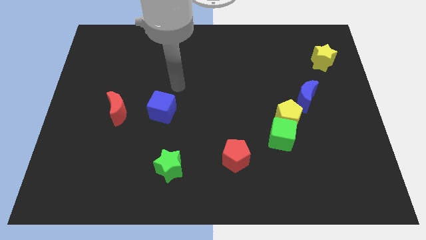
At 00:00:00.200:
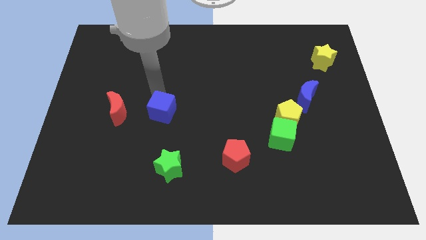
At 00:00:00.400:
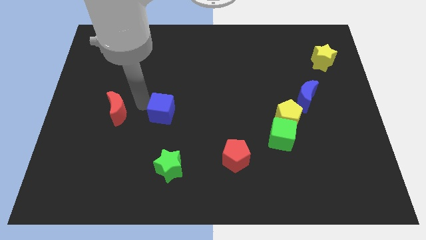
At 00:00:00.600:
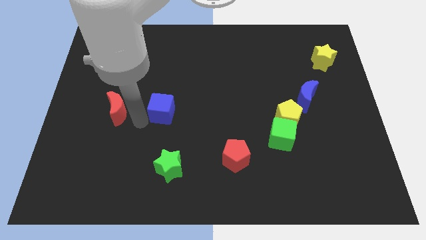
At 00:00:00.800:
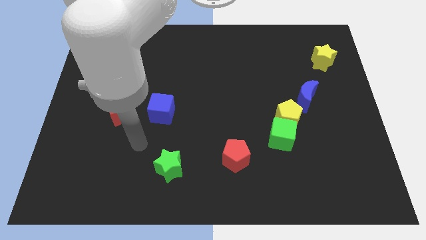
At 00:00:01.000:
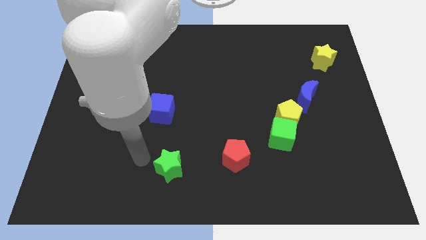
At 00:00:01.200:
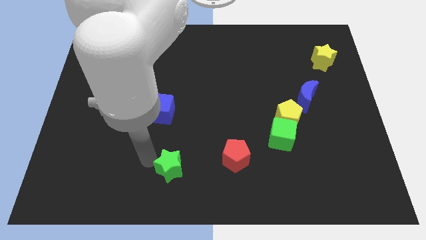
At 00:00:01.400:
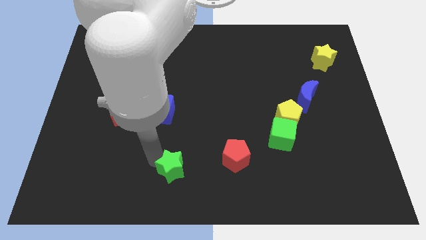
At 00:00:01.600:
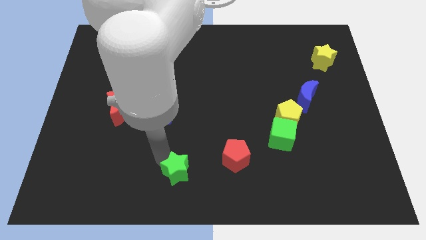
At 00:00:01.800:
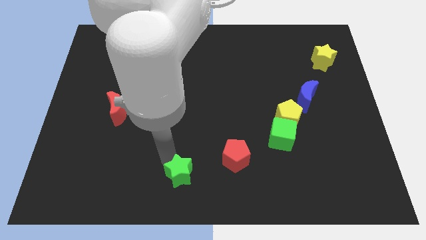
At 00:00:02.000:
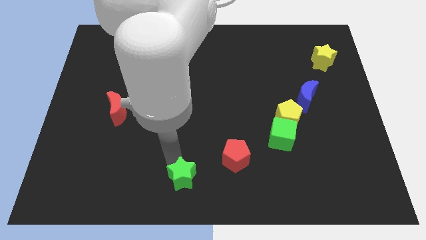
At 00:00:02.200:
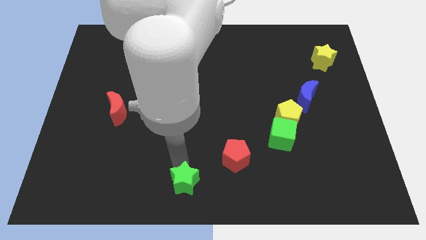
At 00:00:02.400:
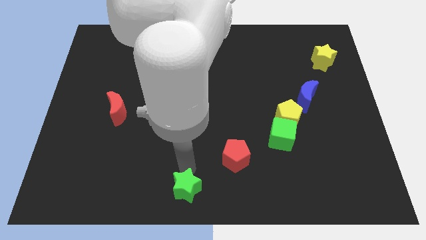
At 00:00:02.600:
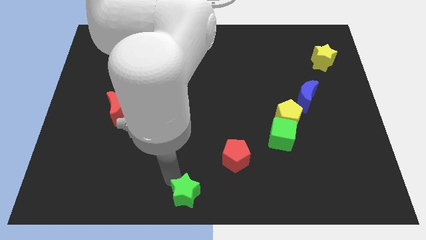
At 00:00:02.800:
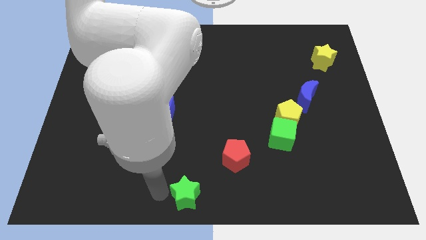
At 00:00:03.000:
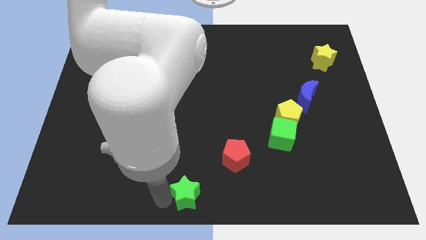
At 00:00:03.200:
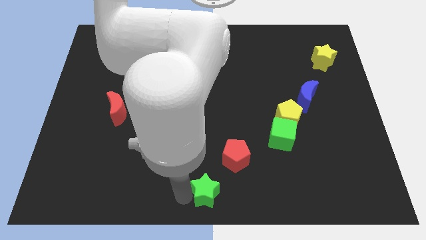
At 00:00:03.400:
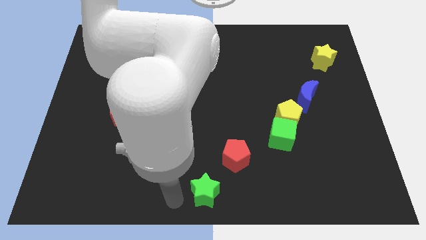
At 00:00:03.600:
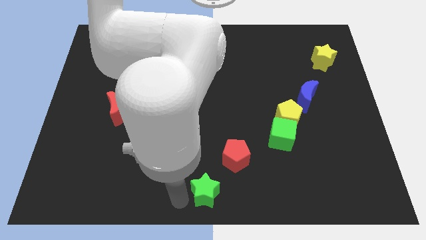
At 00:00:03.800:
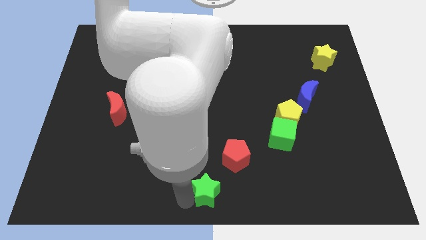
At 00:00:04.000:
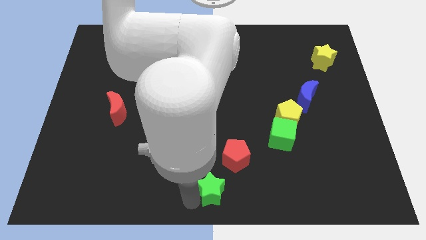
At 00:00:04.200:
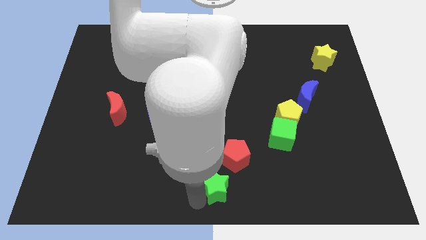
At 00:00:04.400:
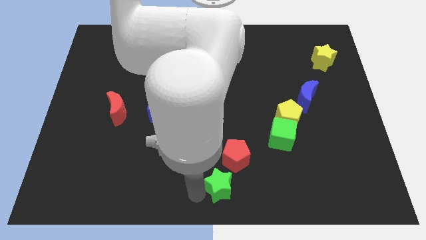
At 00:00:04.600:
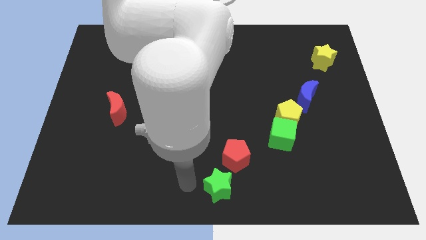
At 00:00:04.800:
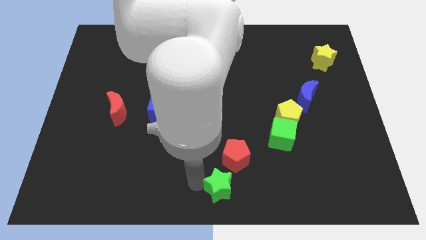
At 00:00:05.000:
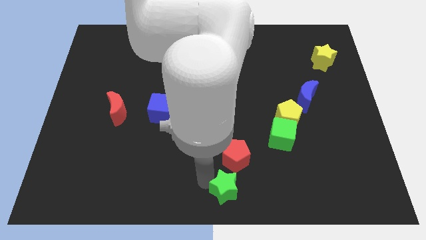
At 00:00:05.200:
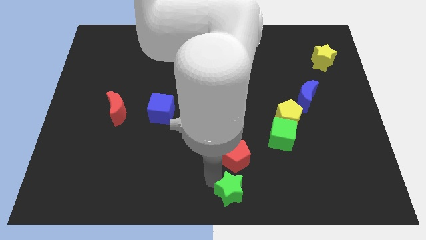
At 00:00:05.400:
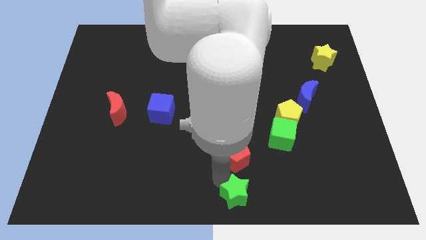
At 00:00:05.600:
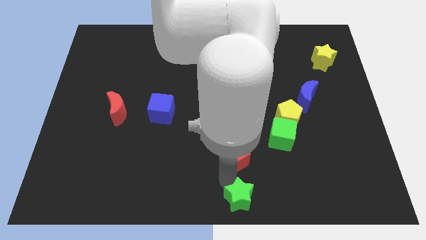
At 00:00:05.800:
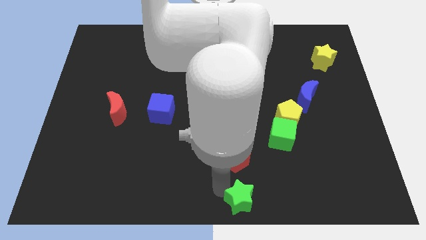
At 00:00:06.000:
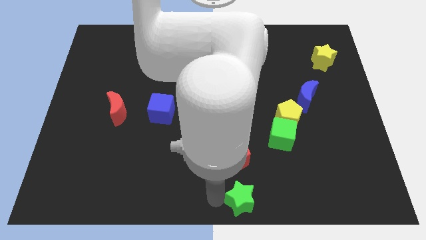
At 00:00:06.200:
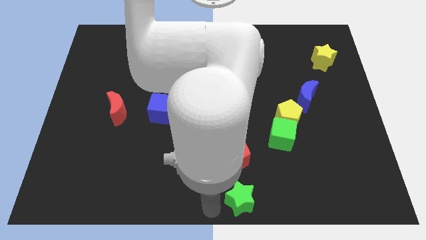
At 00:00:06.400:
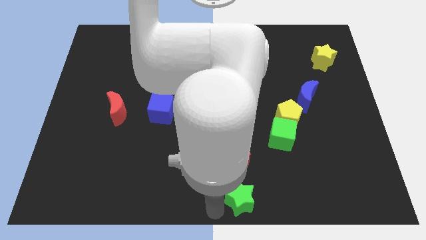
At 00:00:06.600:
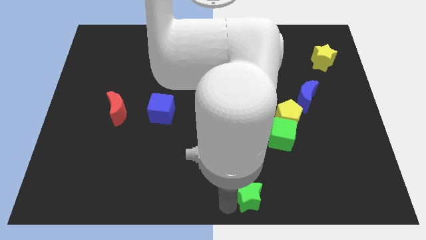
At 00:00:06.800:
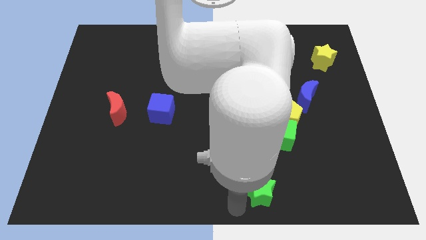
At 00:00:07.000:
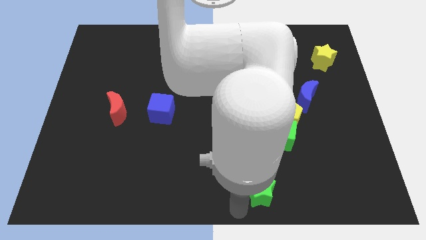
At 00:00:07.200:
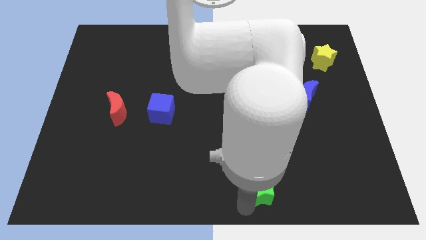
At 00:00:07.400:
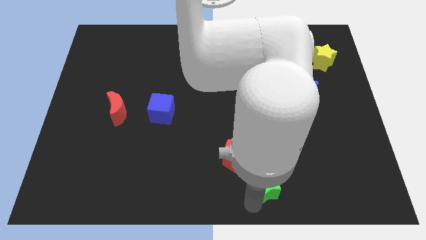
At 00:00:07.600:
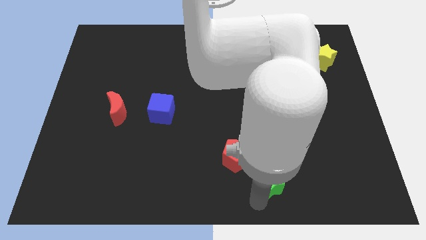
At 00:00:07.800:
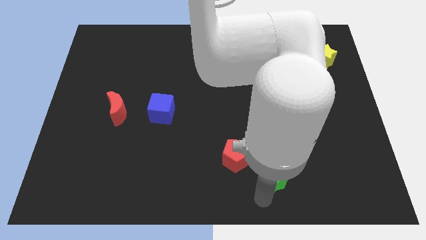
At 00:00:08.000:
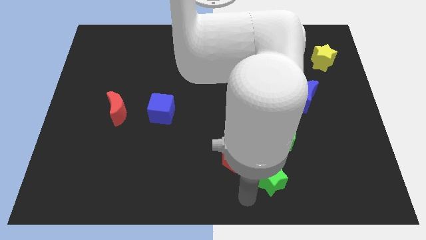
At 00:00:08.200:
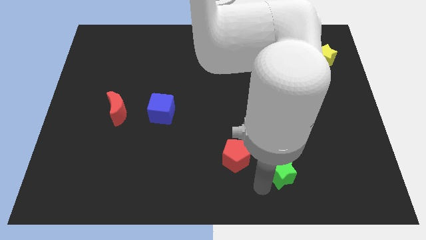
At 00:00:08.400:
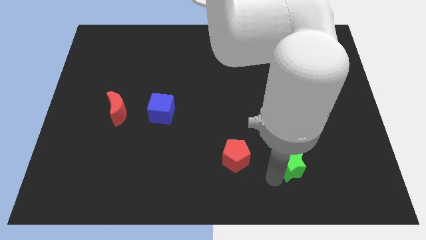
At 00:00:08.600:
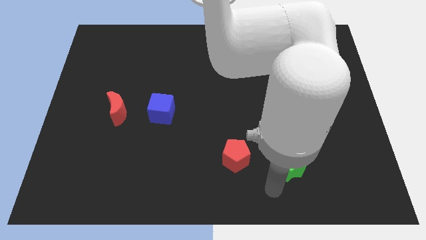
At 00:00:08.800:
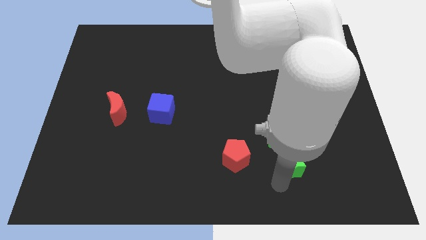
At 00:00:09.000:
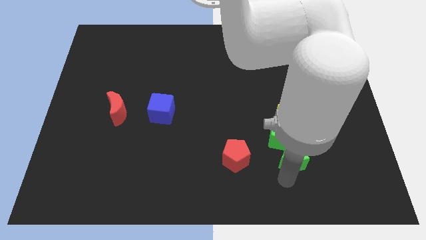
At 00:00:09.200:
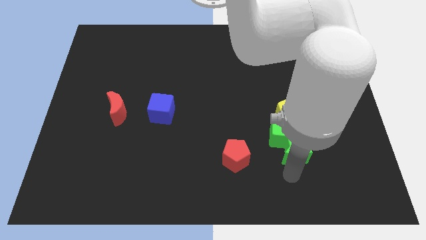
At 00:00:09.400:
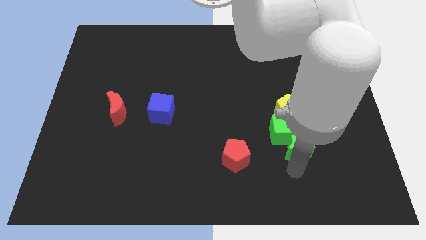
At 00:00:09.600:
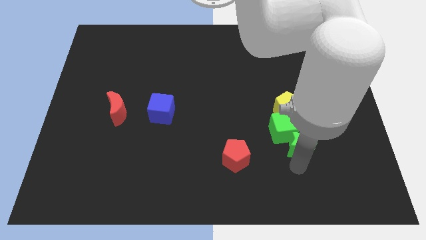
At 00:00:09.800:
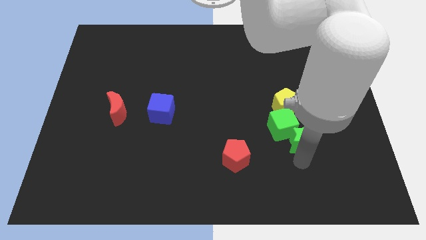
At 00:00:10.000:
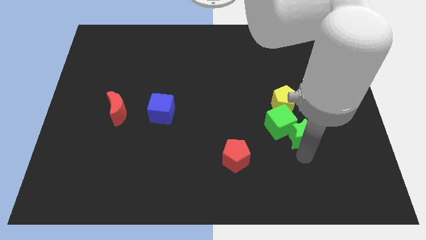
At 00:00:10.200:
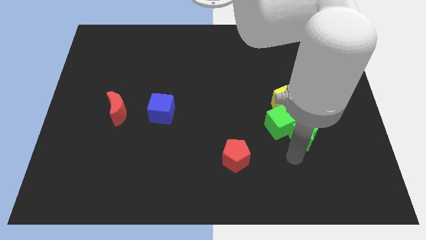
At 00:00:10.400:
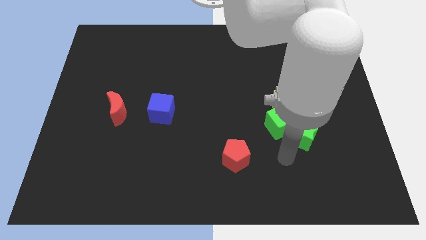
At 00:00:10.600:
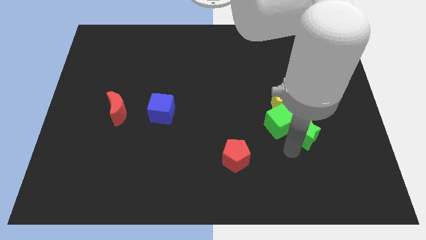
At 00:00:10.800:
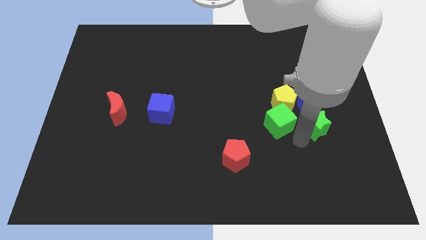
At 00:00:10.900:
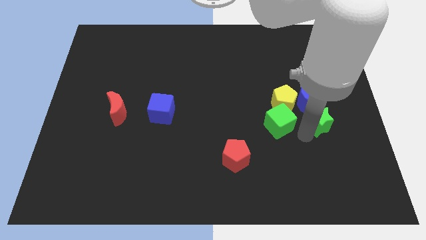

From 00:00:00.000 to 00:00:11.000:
move the green star to the bottom right side of the blue moon

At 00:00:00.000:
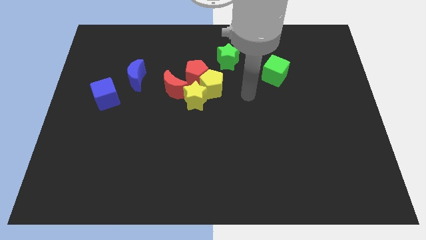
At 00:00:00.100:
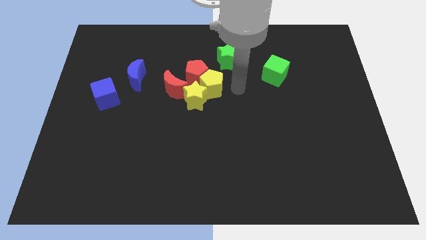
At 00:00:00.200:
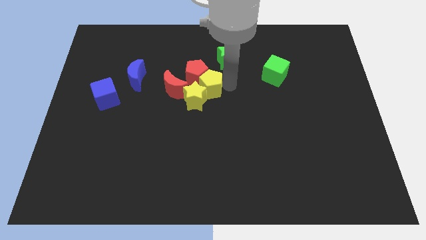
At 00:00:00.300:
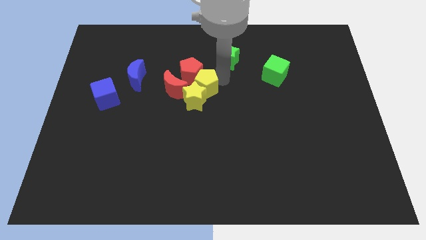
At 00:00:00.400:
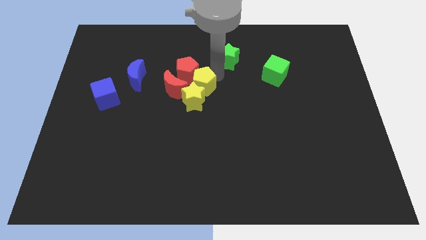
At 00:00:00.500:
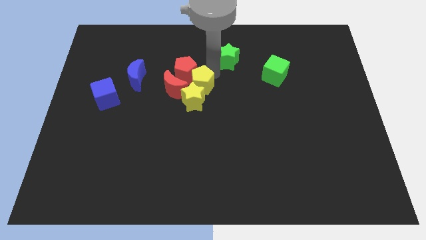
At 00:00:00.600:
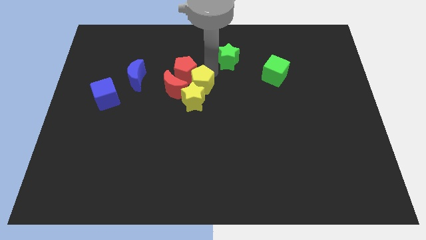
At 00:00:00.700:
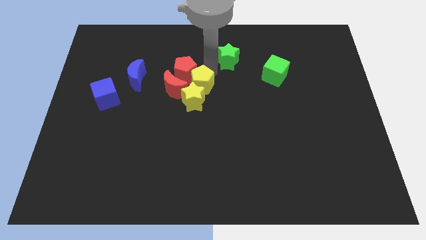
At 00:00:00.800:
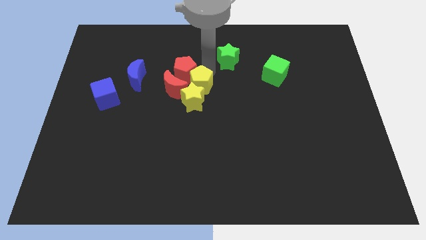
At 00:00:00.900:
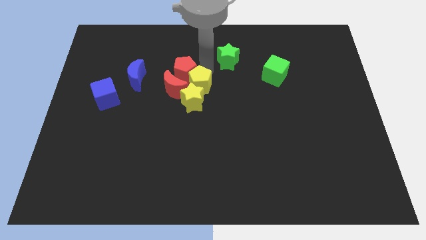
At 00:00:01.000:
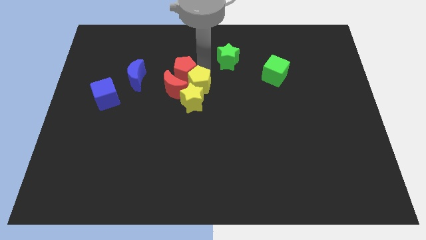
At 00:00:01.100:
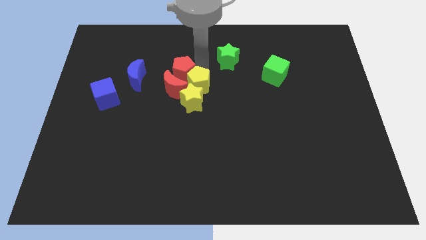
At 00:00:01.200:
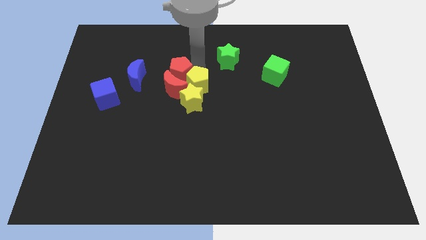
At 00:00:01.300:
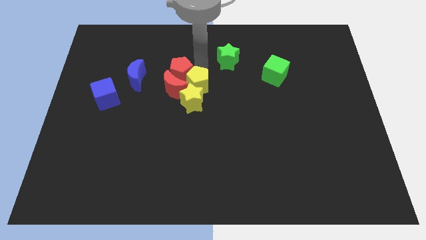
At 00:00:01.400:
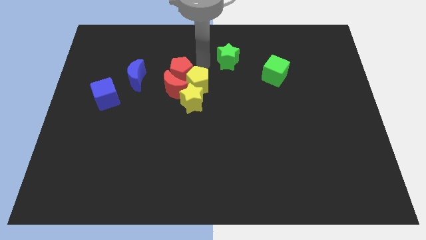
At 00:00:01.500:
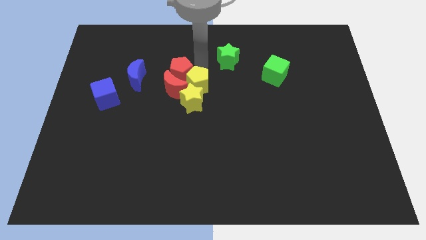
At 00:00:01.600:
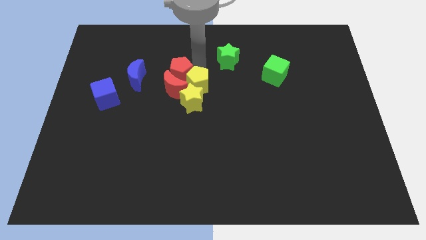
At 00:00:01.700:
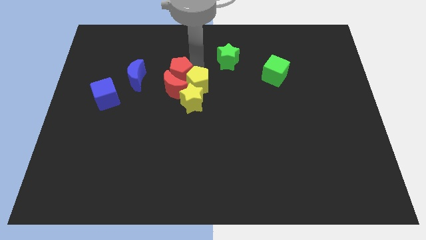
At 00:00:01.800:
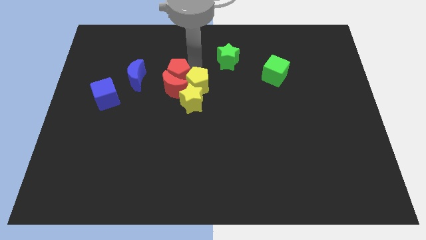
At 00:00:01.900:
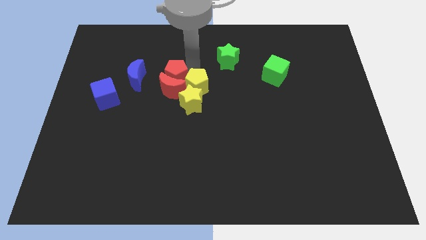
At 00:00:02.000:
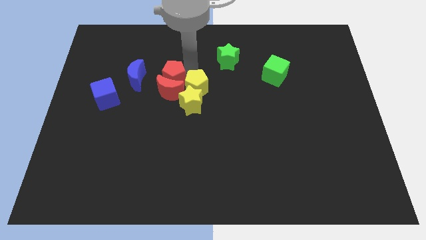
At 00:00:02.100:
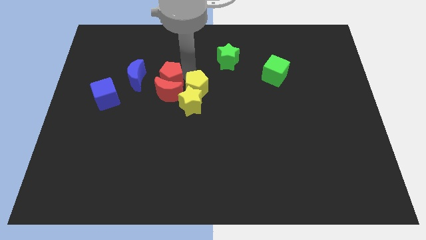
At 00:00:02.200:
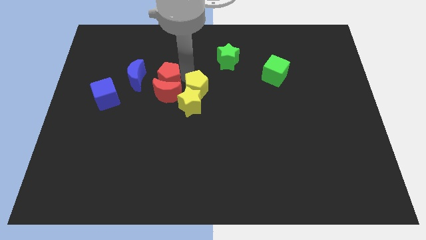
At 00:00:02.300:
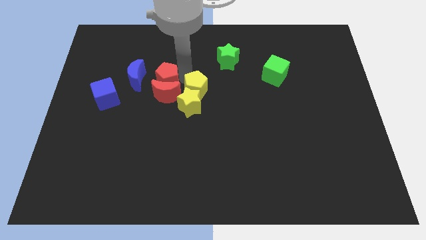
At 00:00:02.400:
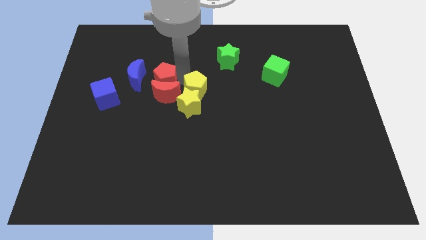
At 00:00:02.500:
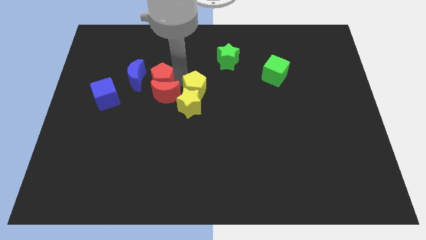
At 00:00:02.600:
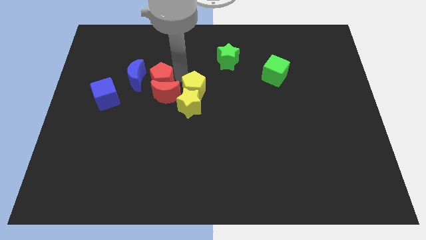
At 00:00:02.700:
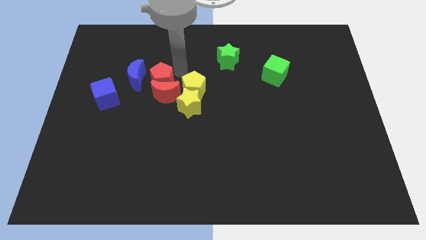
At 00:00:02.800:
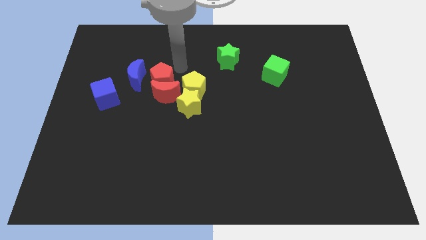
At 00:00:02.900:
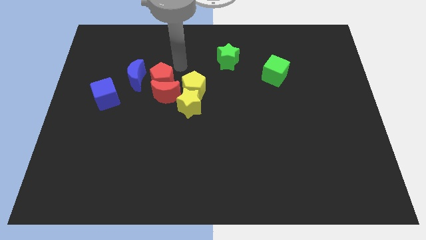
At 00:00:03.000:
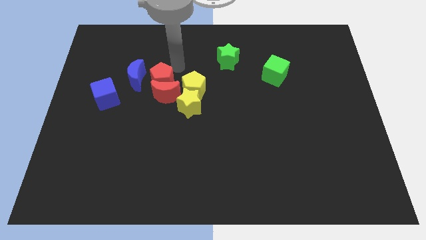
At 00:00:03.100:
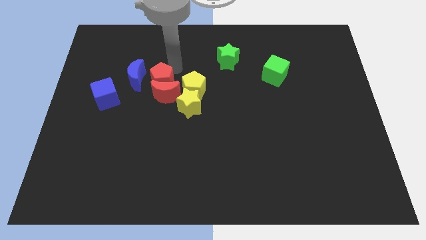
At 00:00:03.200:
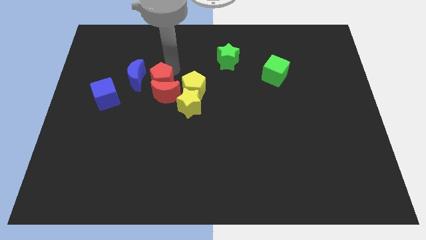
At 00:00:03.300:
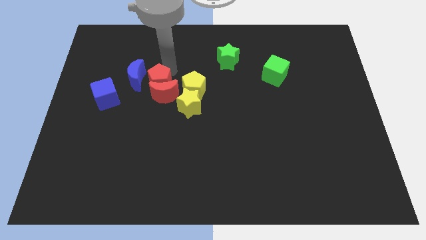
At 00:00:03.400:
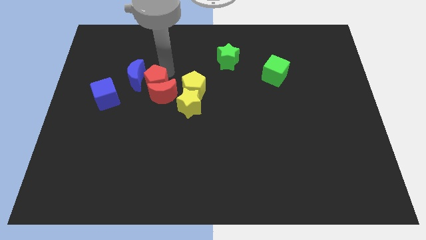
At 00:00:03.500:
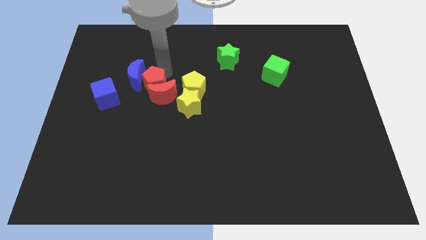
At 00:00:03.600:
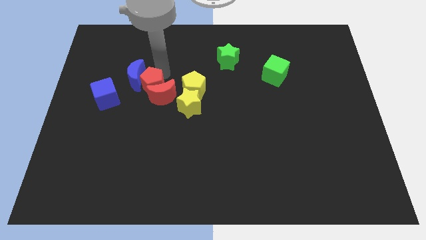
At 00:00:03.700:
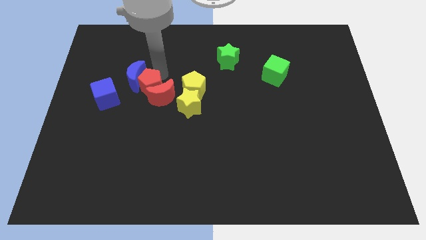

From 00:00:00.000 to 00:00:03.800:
put the red pentagon to the bottom of the blue moon
